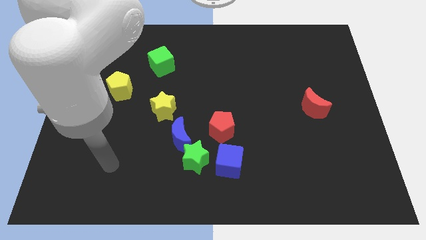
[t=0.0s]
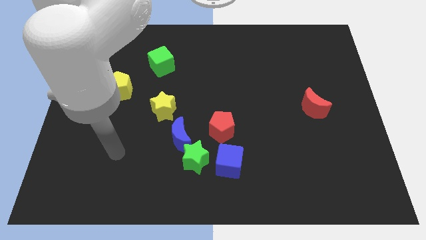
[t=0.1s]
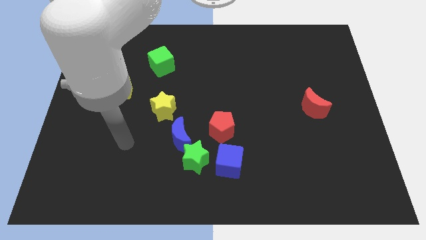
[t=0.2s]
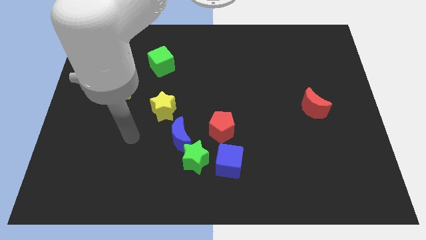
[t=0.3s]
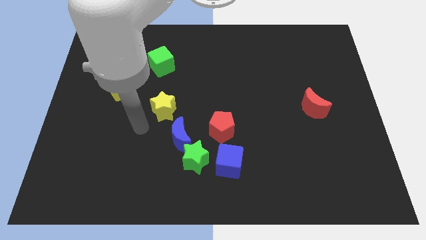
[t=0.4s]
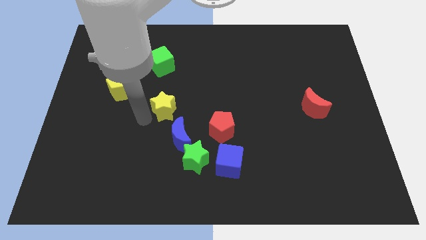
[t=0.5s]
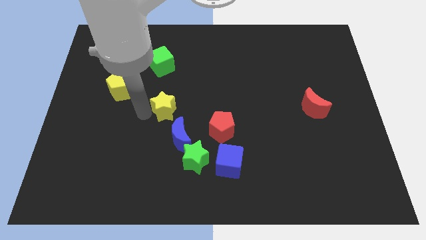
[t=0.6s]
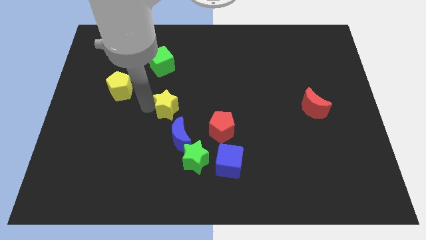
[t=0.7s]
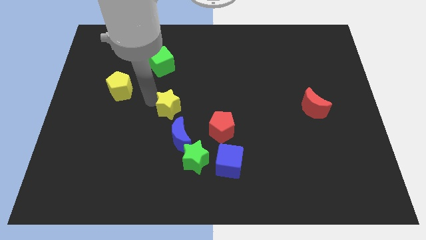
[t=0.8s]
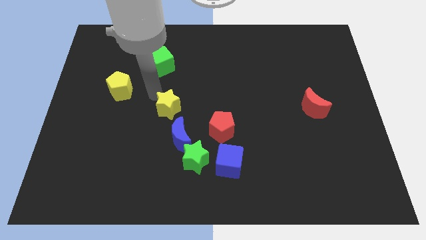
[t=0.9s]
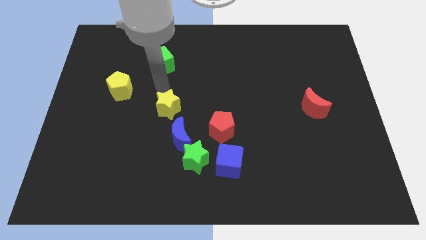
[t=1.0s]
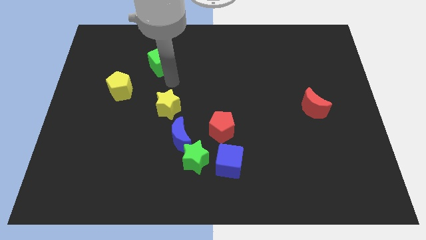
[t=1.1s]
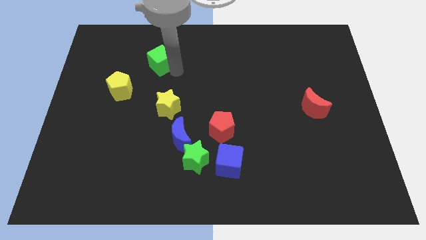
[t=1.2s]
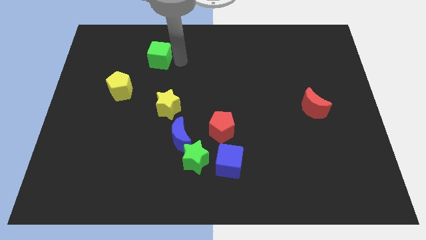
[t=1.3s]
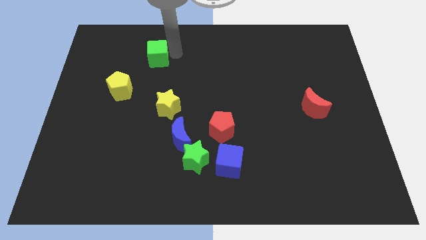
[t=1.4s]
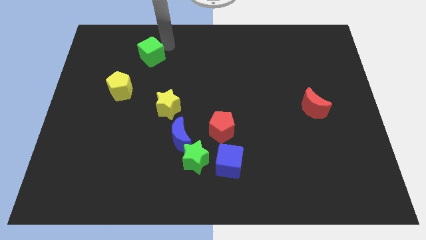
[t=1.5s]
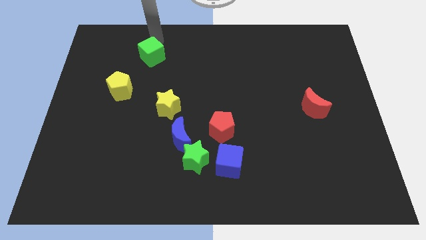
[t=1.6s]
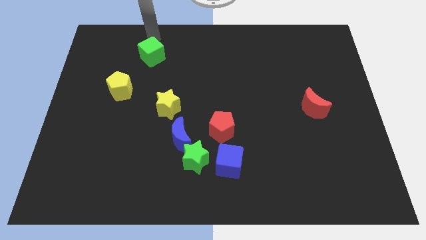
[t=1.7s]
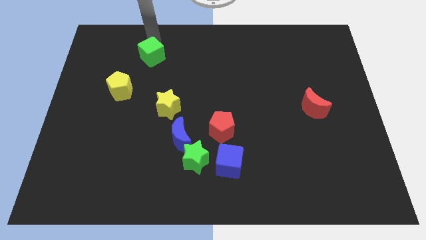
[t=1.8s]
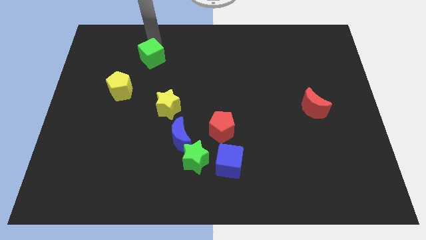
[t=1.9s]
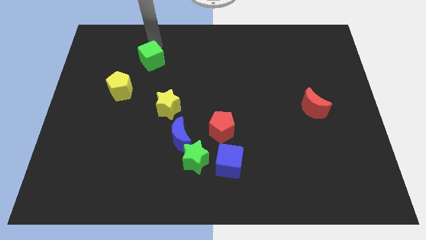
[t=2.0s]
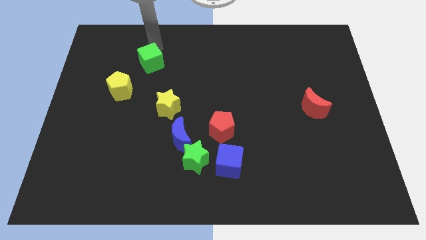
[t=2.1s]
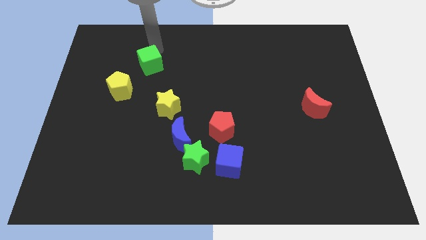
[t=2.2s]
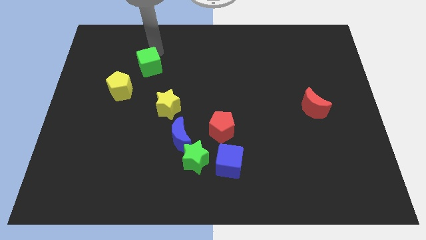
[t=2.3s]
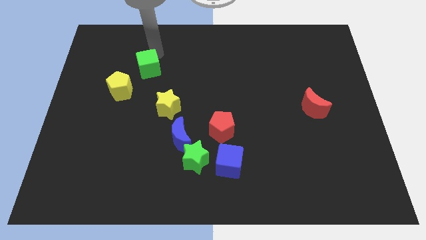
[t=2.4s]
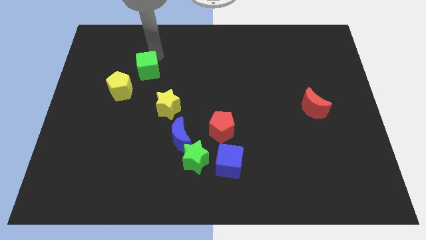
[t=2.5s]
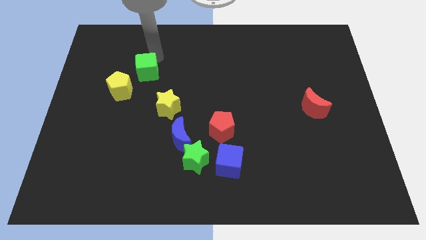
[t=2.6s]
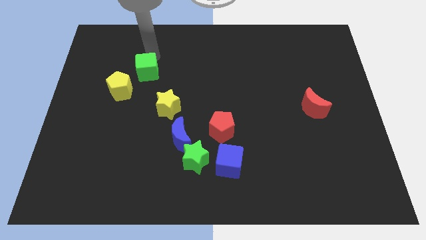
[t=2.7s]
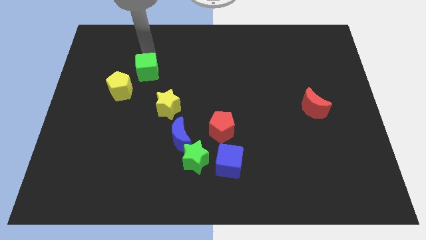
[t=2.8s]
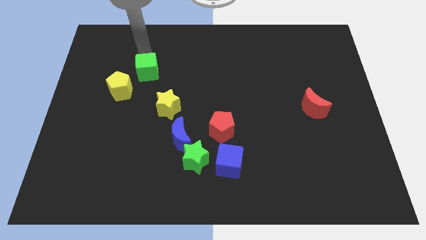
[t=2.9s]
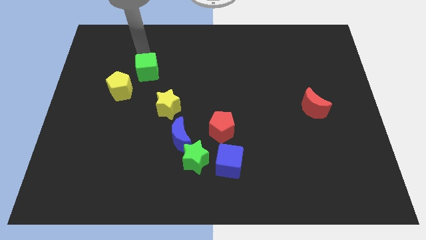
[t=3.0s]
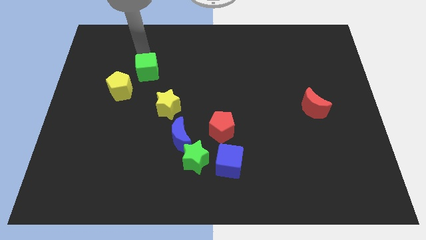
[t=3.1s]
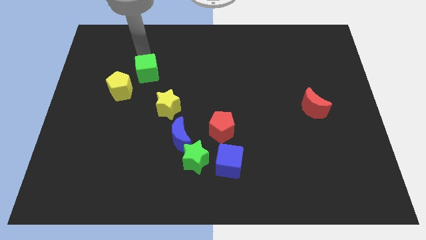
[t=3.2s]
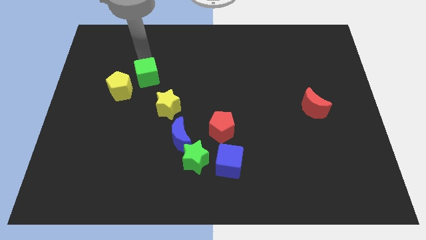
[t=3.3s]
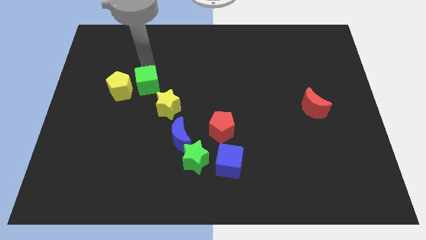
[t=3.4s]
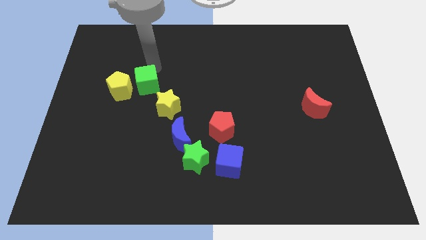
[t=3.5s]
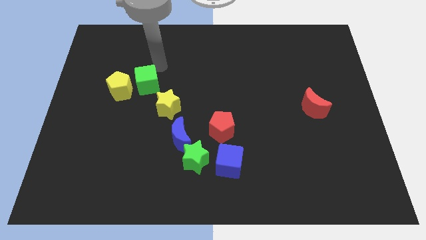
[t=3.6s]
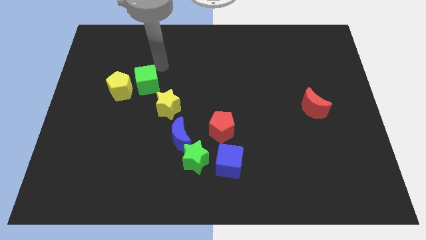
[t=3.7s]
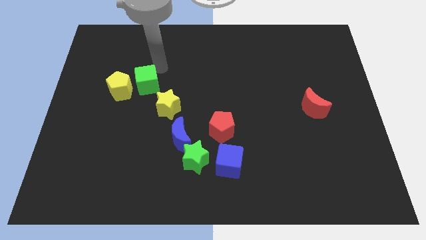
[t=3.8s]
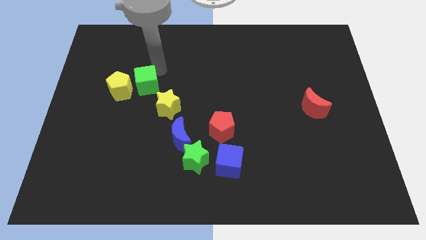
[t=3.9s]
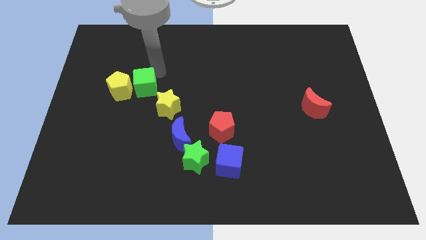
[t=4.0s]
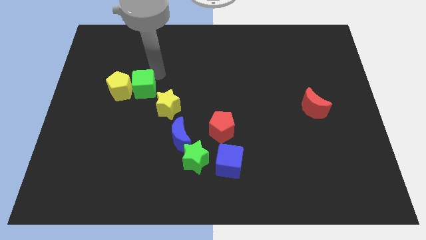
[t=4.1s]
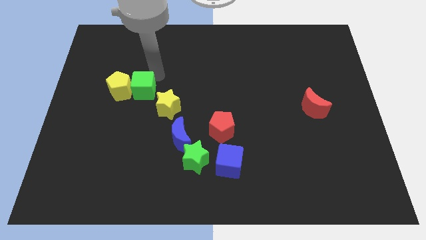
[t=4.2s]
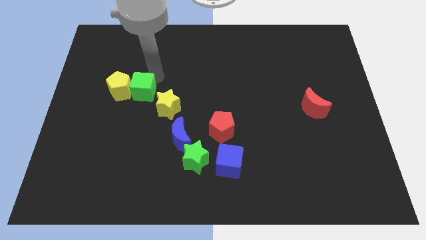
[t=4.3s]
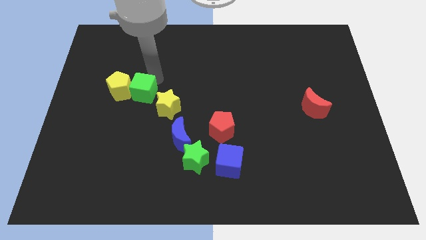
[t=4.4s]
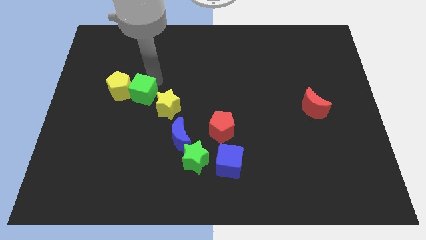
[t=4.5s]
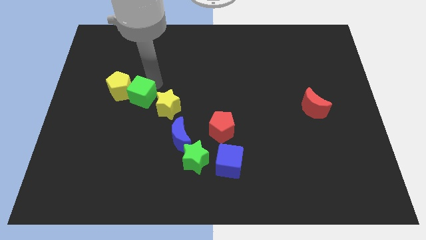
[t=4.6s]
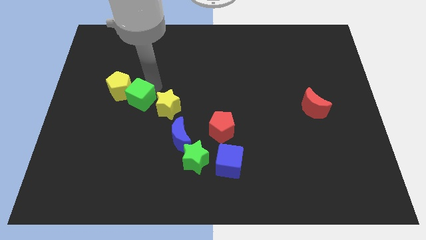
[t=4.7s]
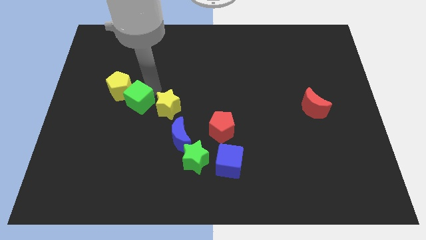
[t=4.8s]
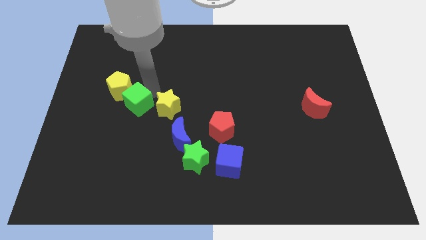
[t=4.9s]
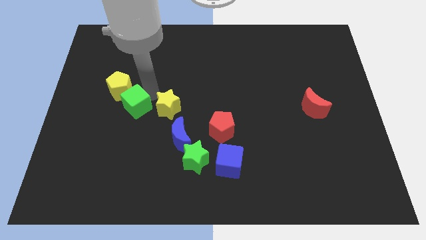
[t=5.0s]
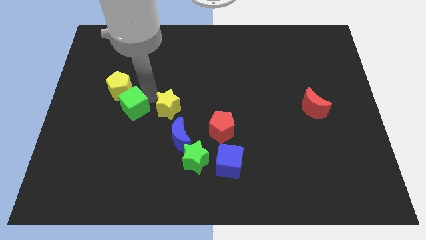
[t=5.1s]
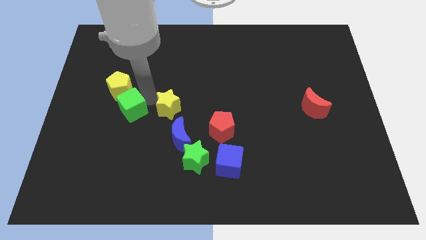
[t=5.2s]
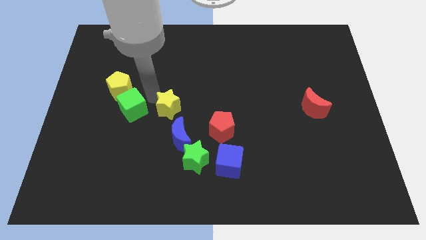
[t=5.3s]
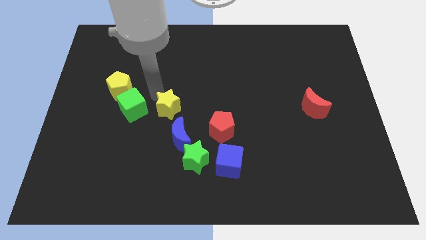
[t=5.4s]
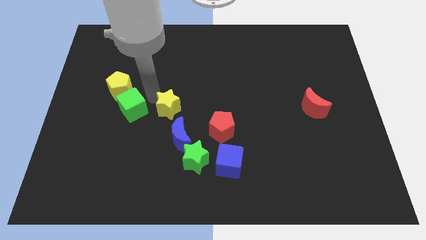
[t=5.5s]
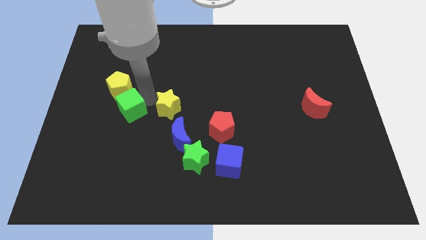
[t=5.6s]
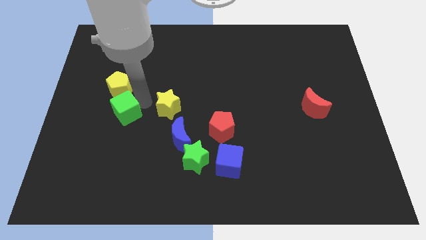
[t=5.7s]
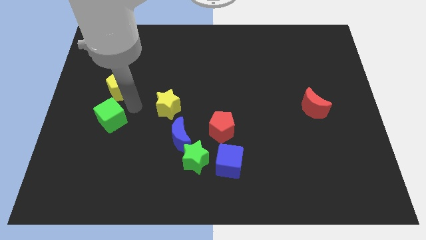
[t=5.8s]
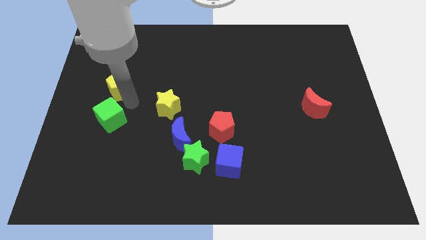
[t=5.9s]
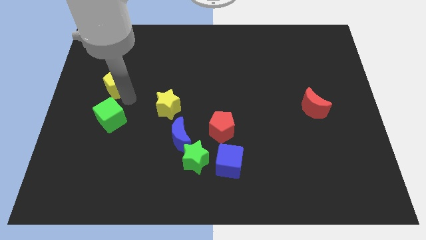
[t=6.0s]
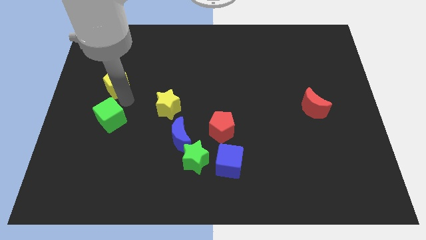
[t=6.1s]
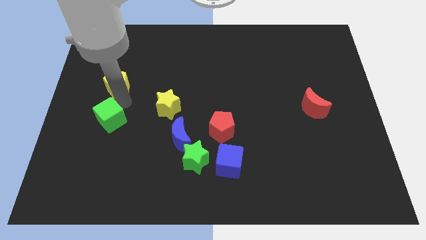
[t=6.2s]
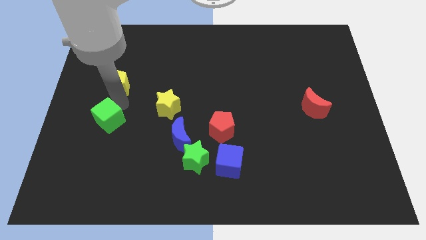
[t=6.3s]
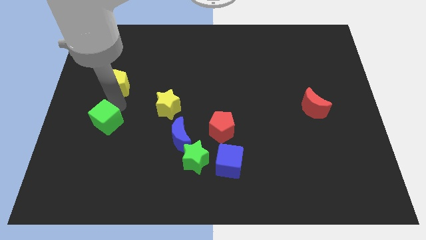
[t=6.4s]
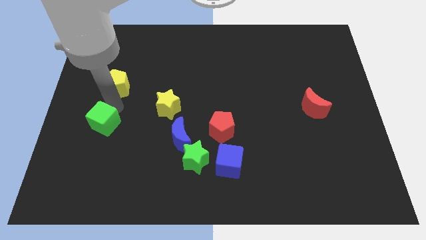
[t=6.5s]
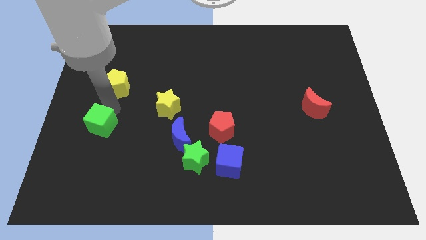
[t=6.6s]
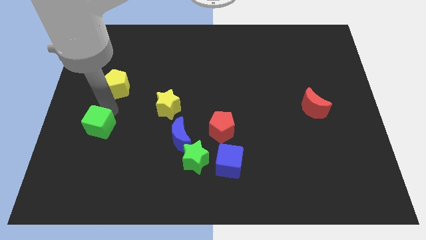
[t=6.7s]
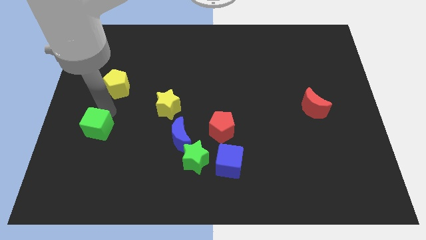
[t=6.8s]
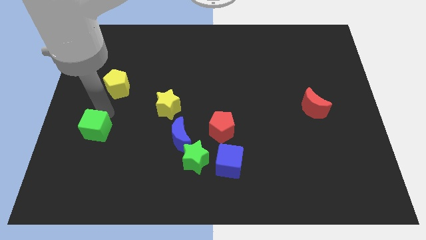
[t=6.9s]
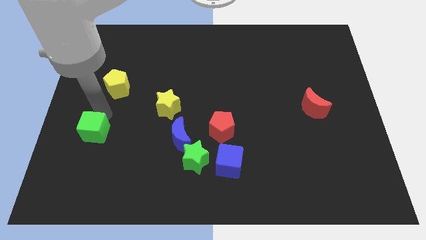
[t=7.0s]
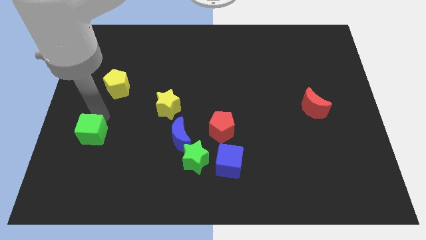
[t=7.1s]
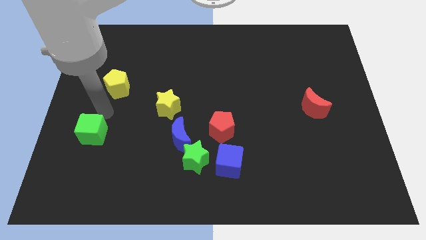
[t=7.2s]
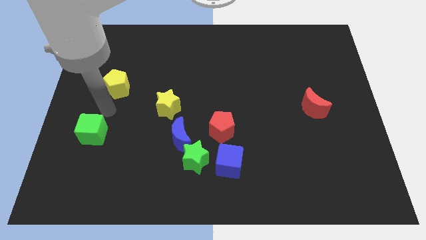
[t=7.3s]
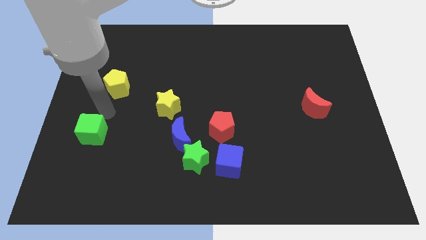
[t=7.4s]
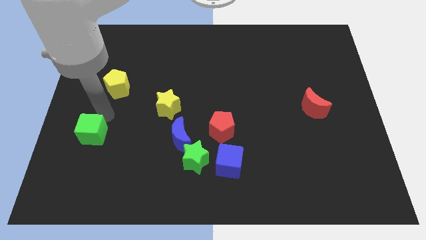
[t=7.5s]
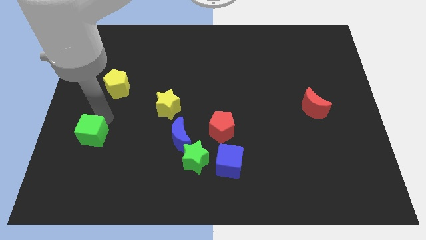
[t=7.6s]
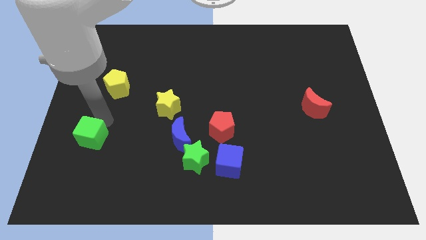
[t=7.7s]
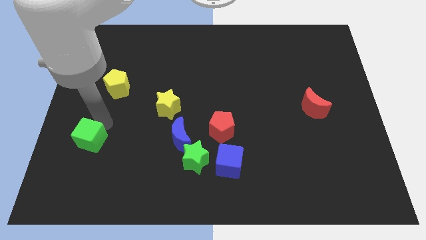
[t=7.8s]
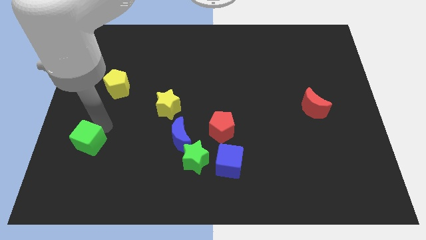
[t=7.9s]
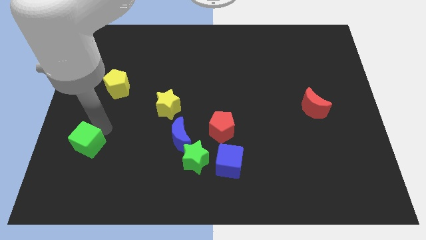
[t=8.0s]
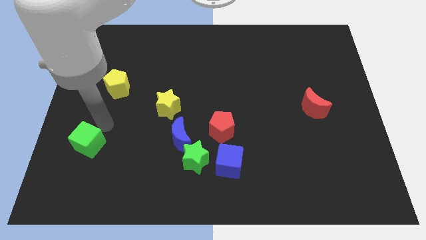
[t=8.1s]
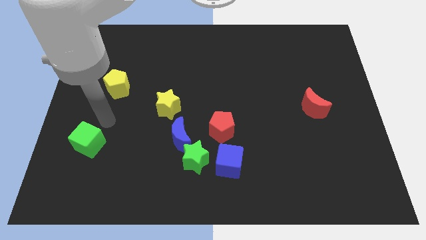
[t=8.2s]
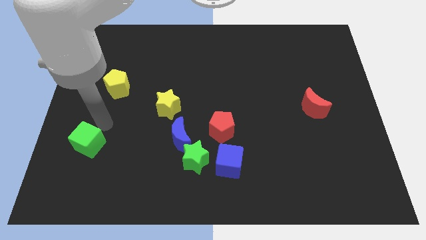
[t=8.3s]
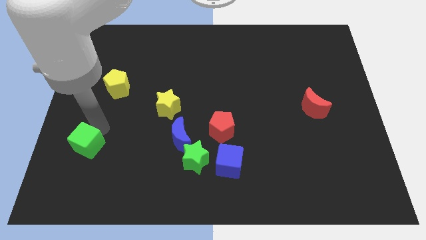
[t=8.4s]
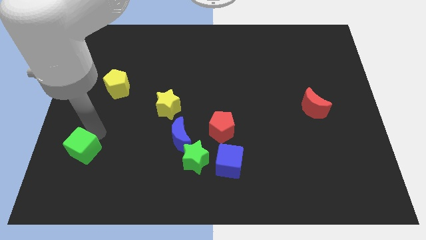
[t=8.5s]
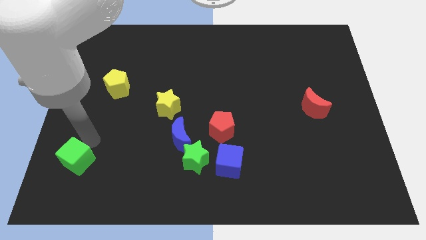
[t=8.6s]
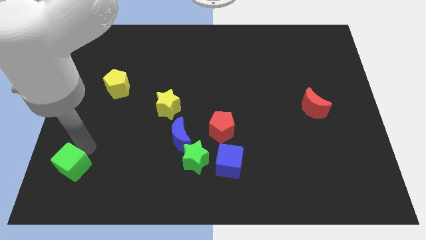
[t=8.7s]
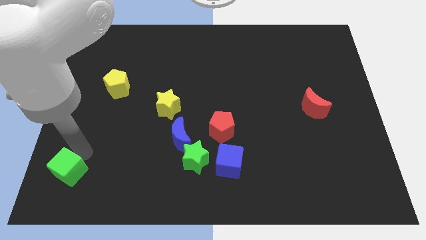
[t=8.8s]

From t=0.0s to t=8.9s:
slide the green cube to the bottom left corner
